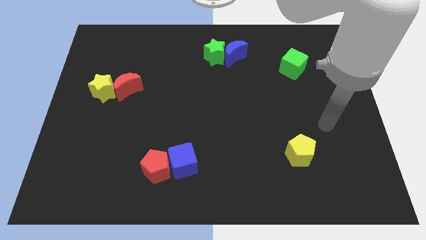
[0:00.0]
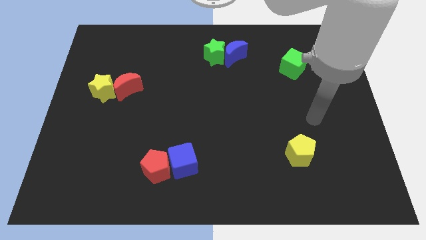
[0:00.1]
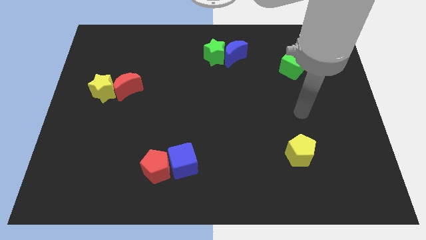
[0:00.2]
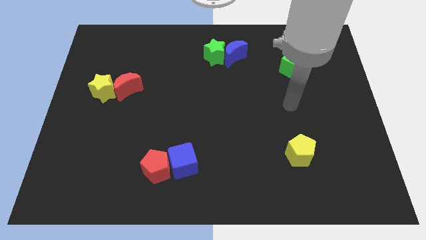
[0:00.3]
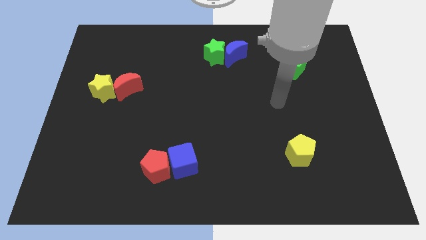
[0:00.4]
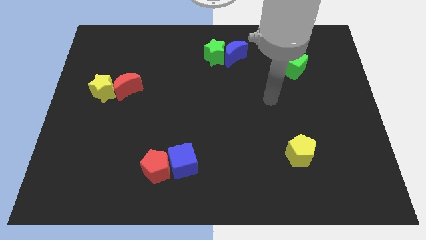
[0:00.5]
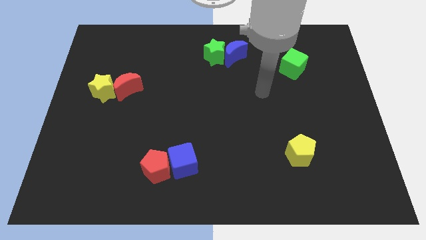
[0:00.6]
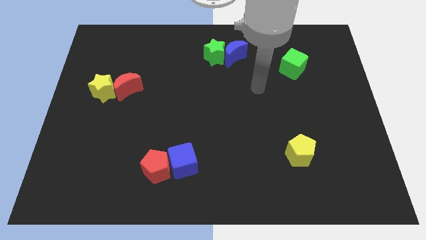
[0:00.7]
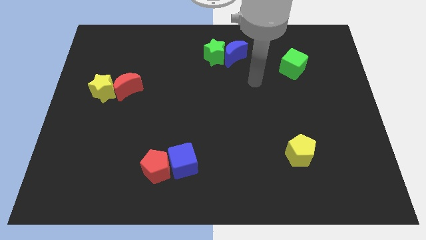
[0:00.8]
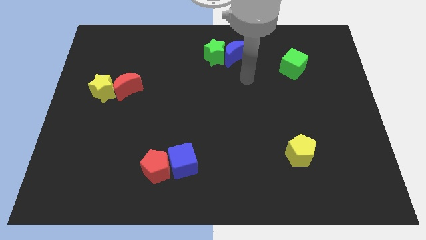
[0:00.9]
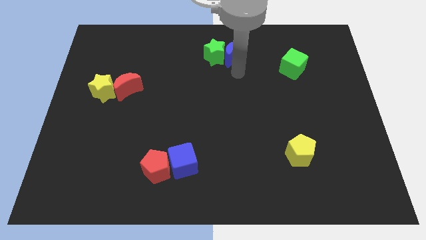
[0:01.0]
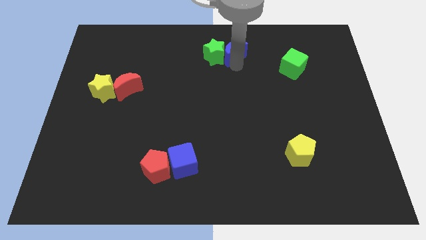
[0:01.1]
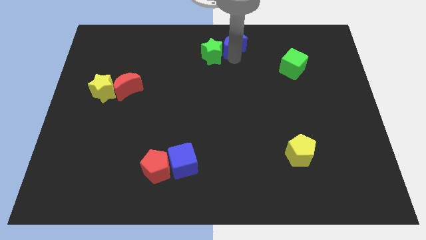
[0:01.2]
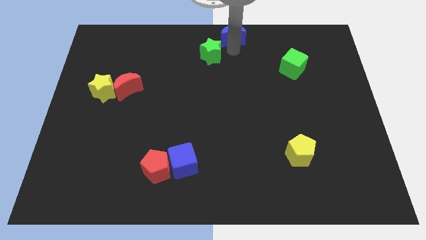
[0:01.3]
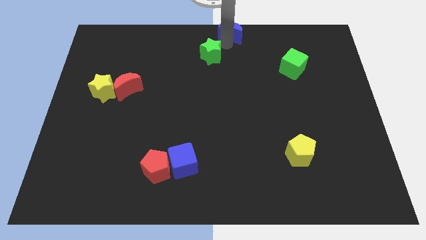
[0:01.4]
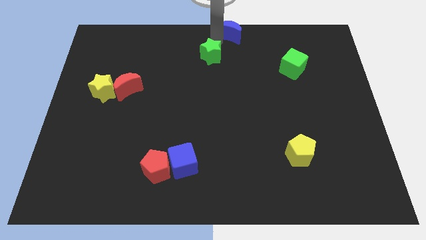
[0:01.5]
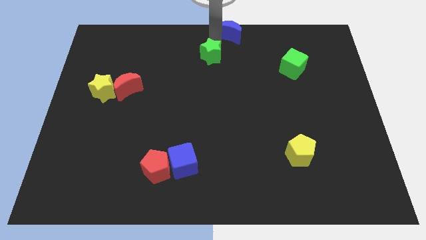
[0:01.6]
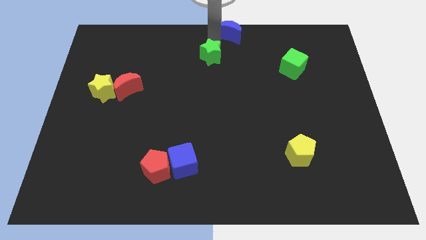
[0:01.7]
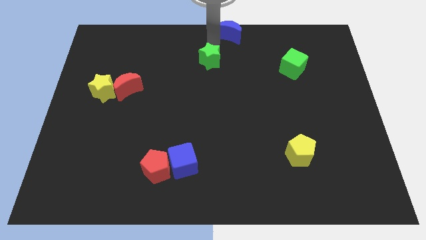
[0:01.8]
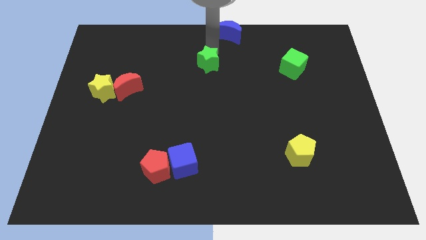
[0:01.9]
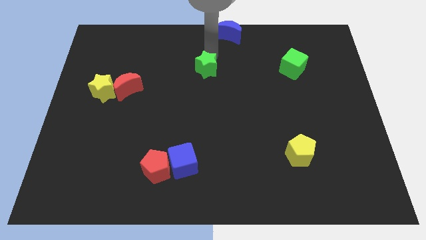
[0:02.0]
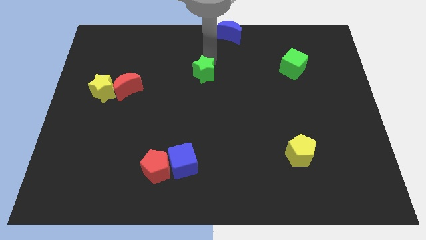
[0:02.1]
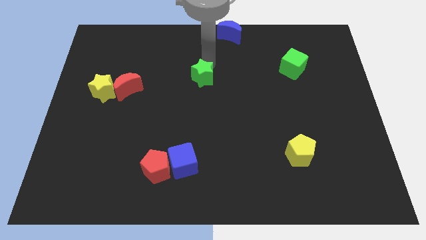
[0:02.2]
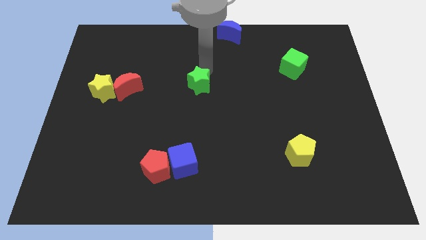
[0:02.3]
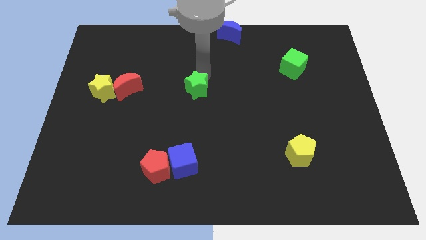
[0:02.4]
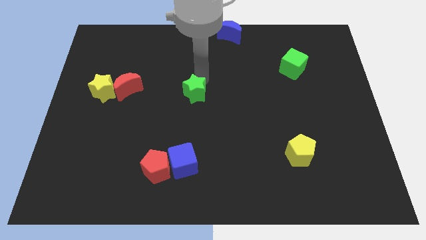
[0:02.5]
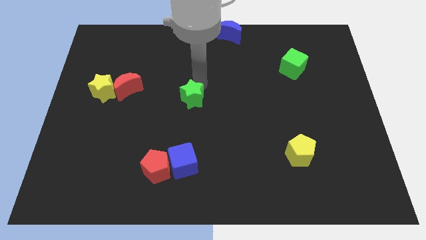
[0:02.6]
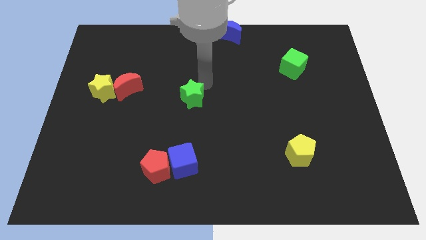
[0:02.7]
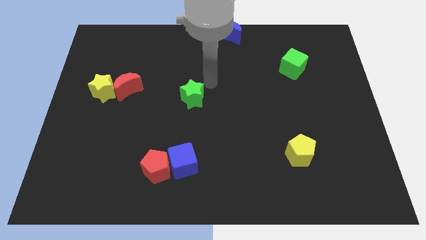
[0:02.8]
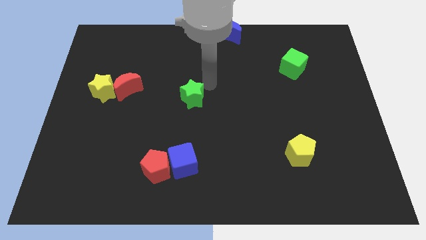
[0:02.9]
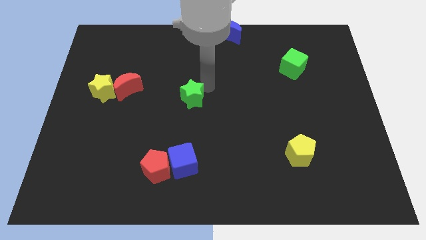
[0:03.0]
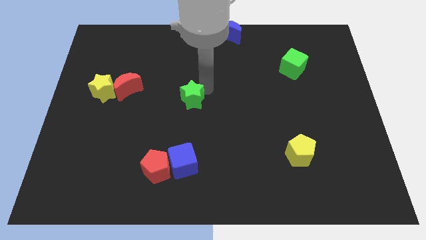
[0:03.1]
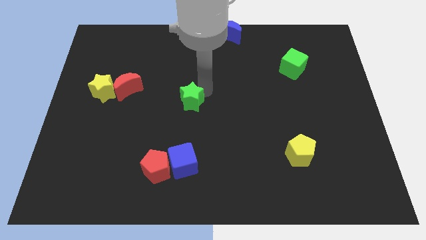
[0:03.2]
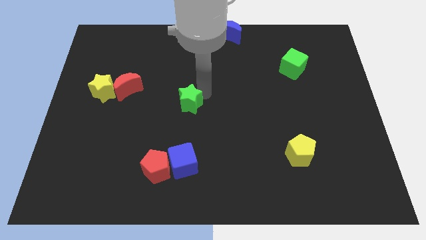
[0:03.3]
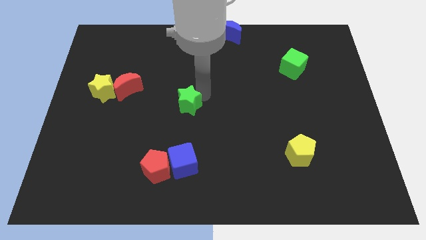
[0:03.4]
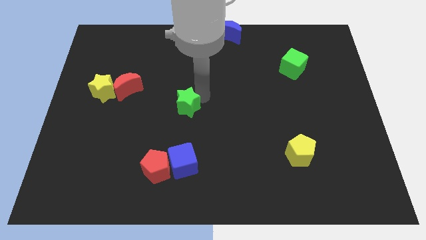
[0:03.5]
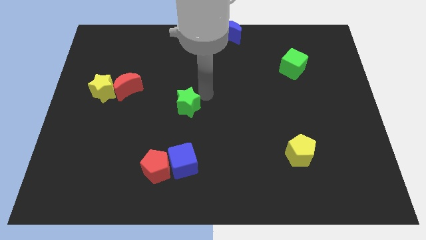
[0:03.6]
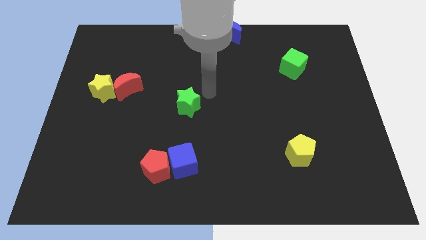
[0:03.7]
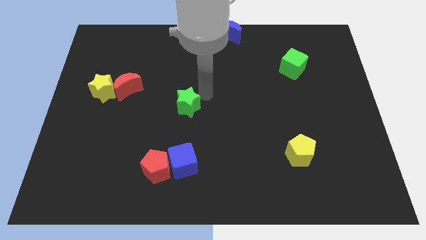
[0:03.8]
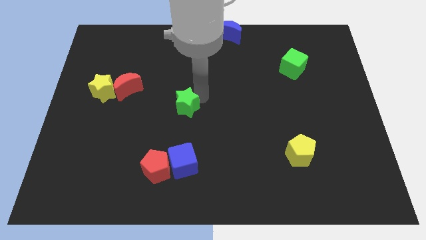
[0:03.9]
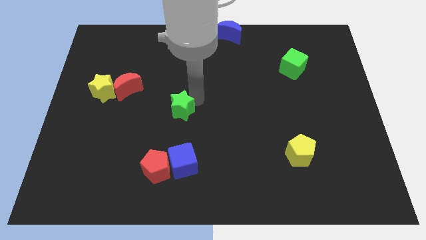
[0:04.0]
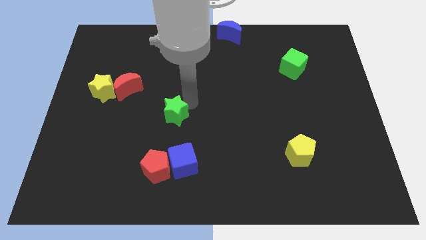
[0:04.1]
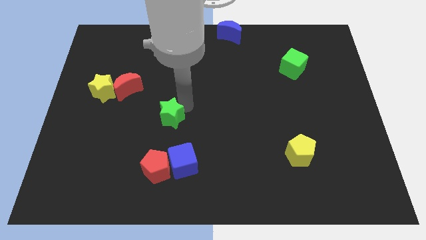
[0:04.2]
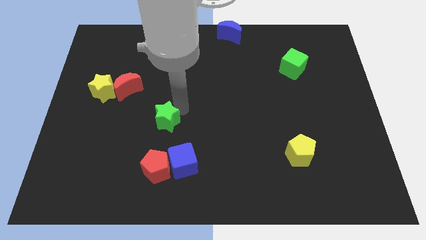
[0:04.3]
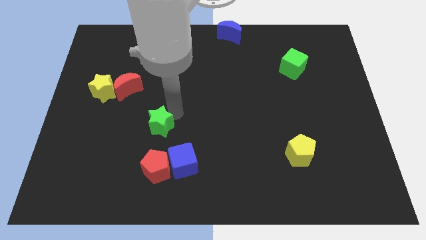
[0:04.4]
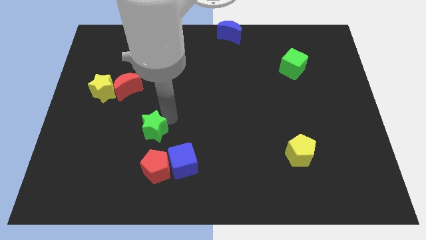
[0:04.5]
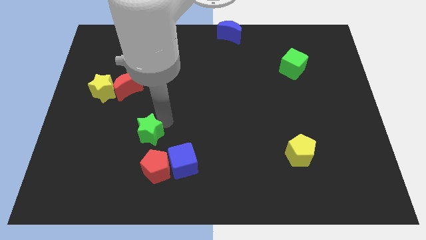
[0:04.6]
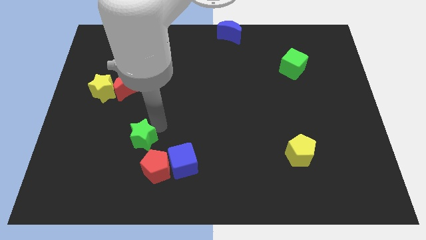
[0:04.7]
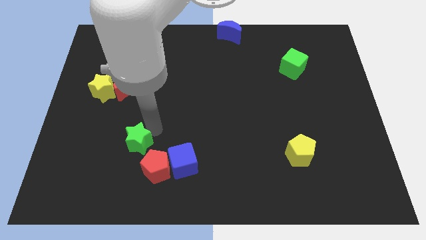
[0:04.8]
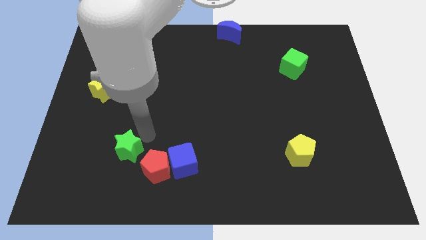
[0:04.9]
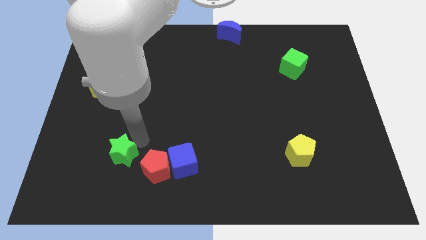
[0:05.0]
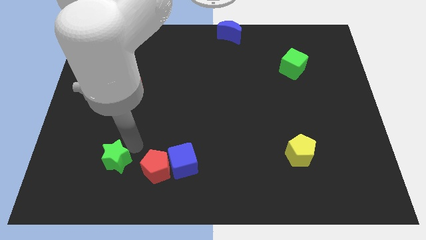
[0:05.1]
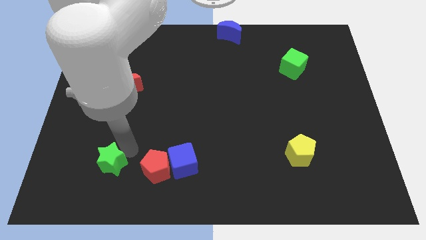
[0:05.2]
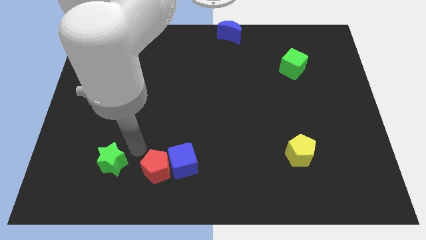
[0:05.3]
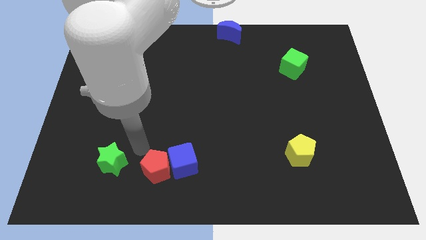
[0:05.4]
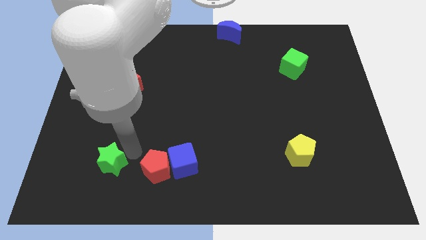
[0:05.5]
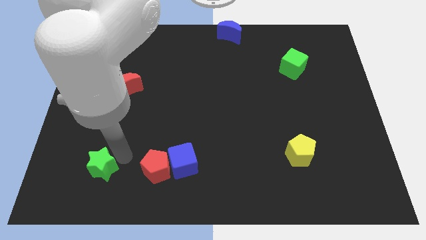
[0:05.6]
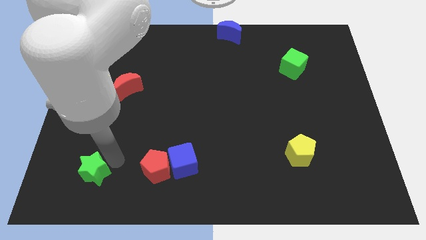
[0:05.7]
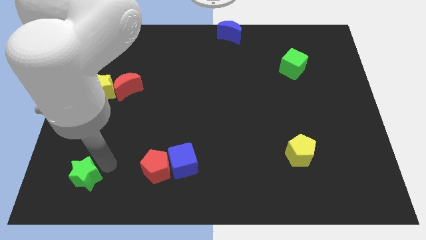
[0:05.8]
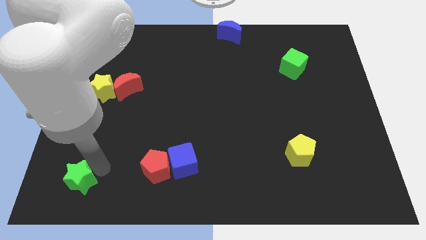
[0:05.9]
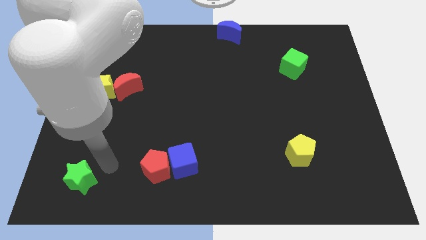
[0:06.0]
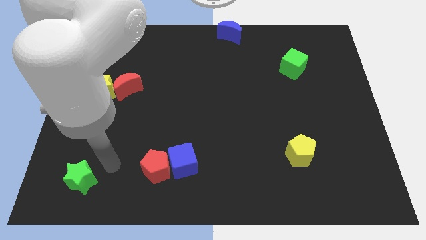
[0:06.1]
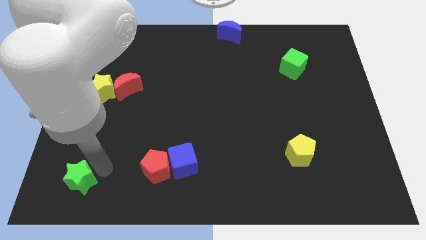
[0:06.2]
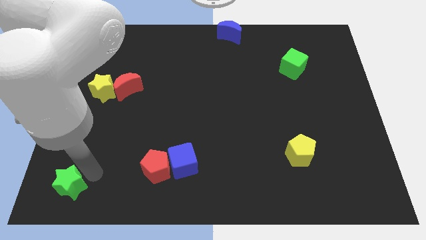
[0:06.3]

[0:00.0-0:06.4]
push the green star to the bottom left of the board
